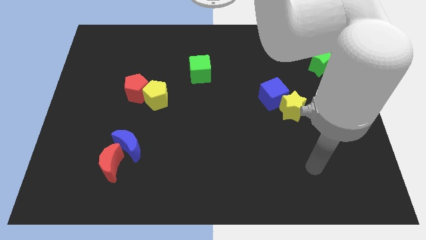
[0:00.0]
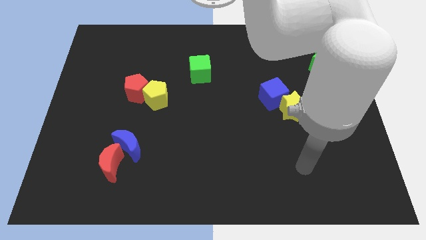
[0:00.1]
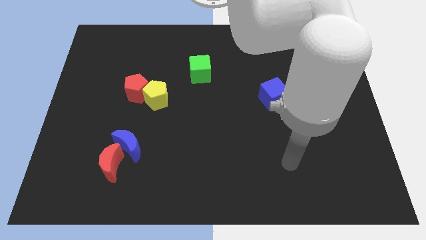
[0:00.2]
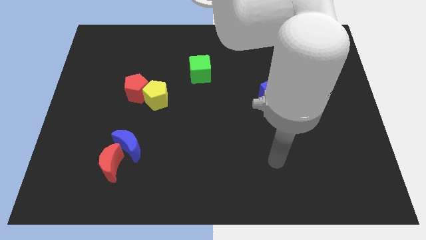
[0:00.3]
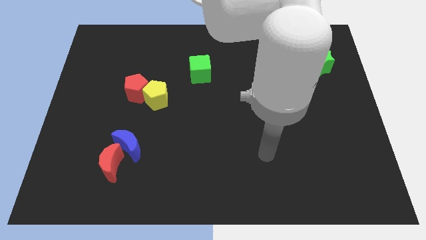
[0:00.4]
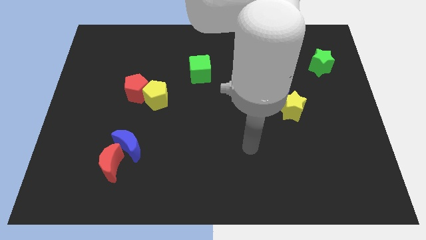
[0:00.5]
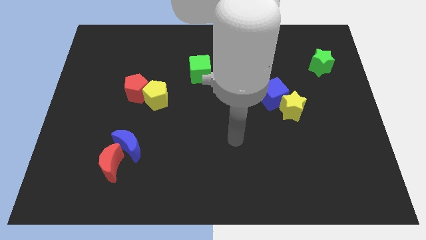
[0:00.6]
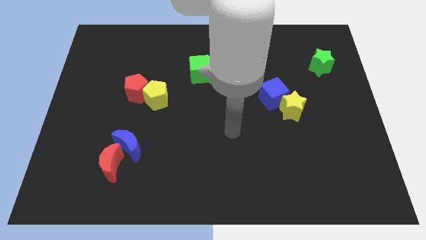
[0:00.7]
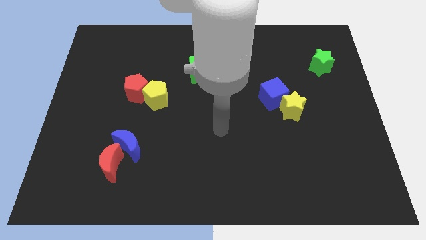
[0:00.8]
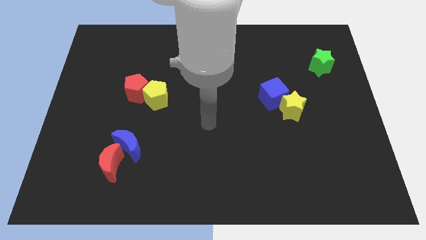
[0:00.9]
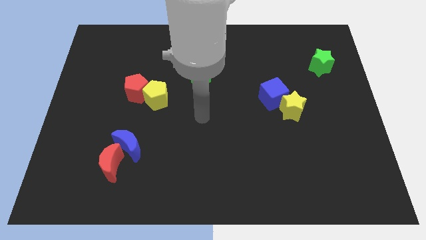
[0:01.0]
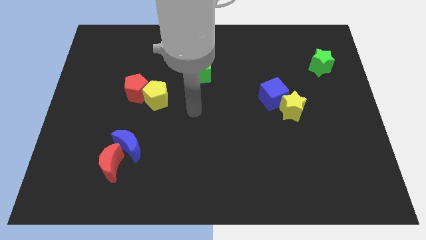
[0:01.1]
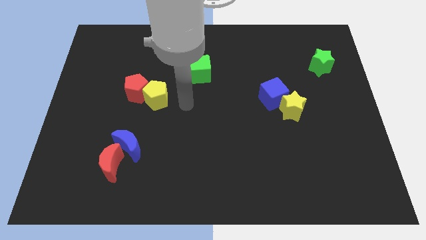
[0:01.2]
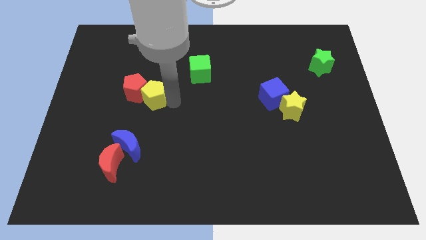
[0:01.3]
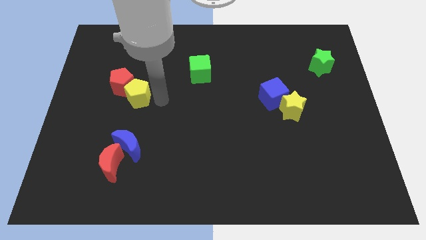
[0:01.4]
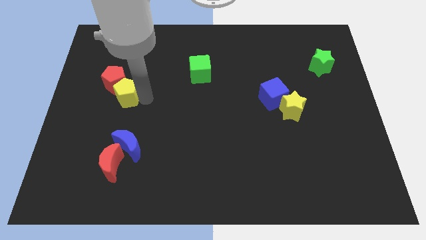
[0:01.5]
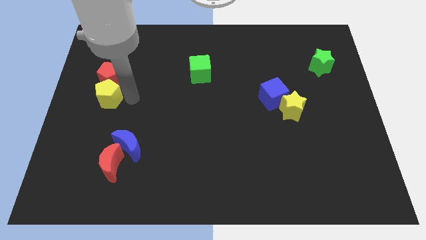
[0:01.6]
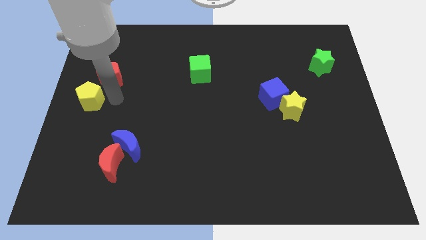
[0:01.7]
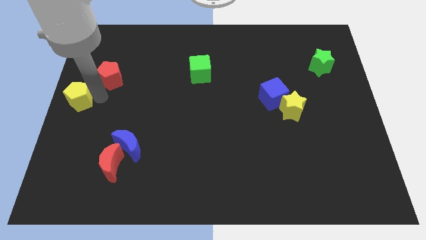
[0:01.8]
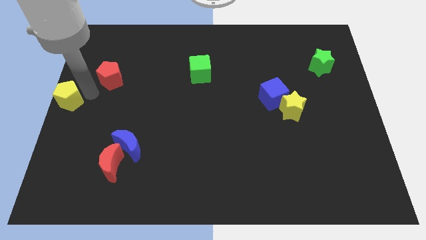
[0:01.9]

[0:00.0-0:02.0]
separate the red pentagon from the yellow pentagon

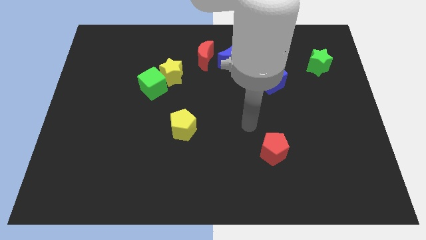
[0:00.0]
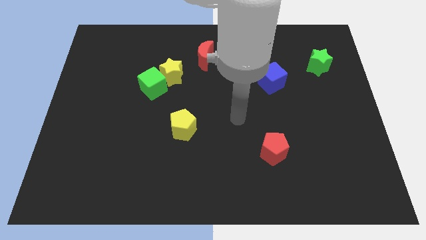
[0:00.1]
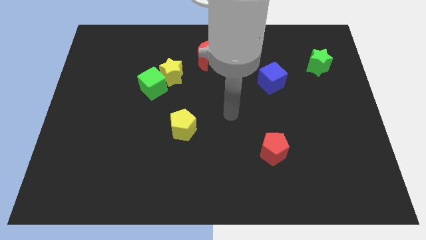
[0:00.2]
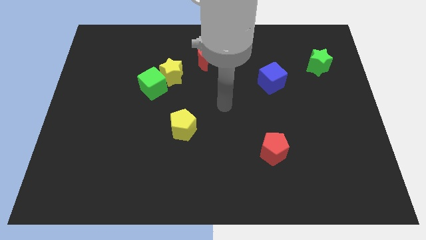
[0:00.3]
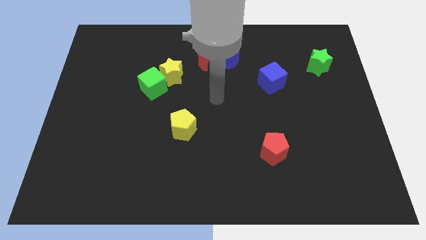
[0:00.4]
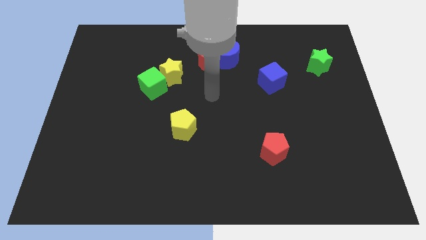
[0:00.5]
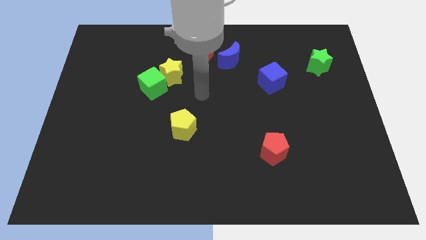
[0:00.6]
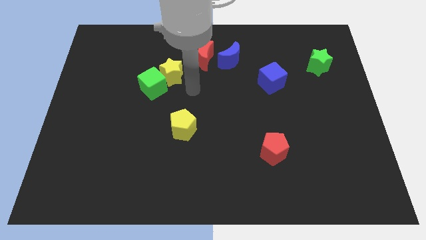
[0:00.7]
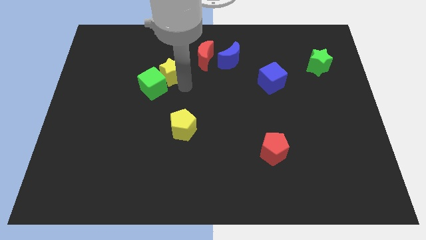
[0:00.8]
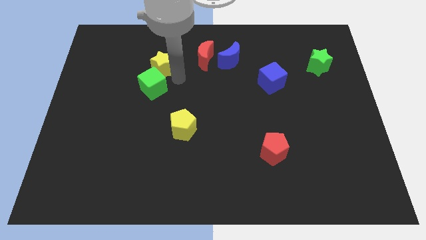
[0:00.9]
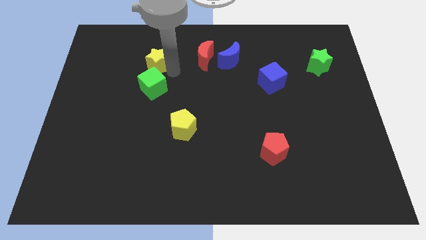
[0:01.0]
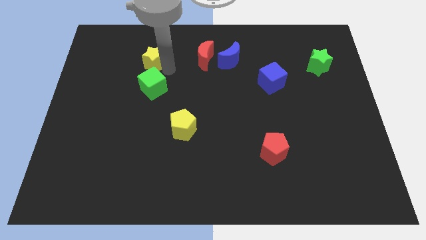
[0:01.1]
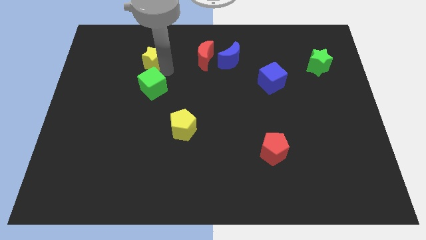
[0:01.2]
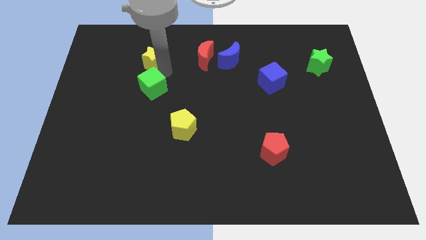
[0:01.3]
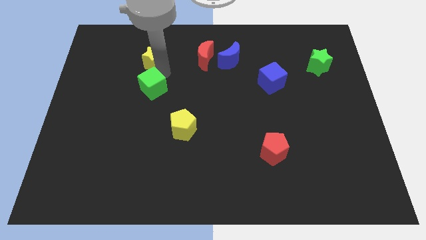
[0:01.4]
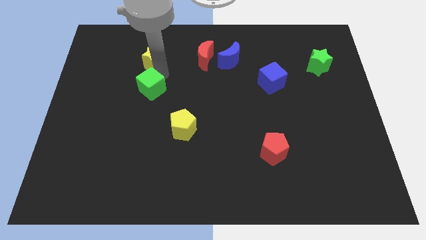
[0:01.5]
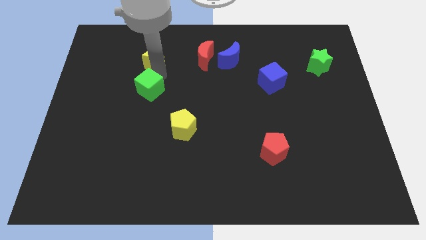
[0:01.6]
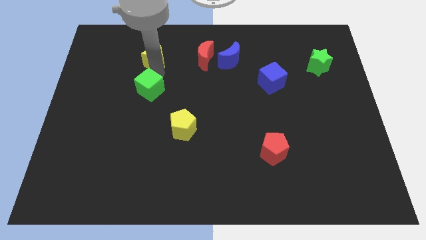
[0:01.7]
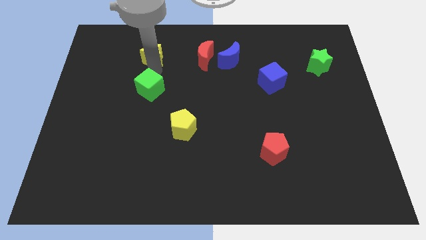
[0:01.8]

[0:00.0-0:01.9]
pull the green cube apart from the yellow star

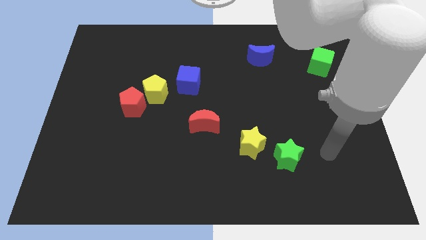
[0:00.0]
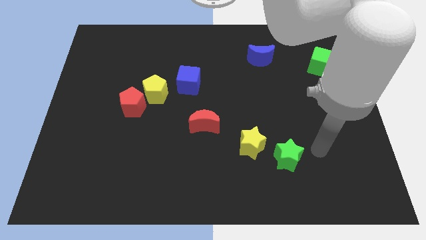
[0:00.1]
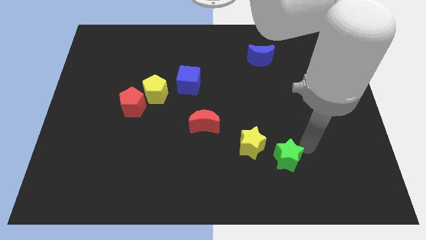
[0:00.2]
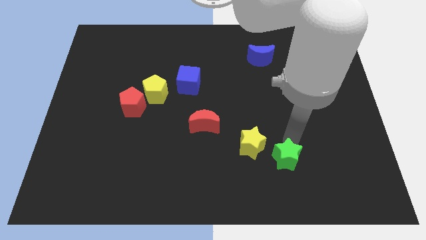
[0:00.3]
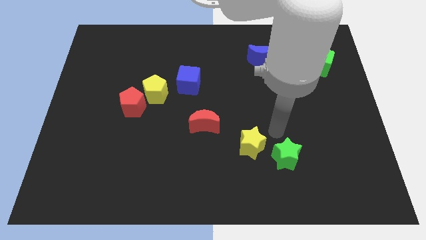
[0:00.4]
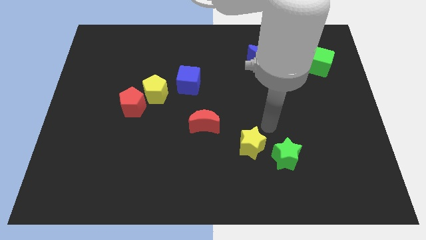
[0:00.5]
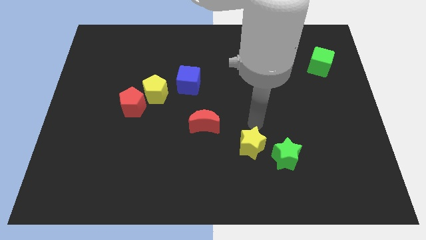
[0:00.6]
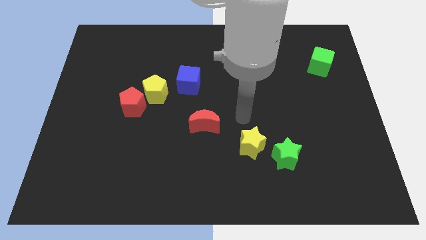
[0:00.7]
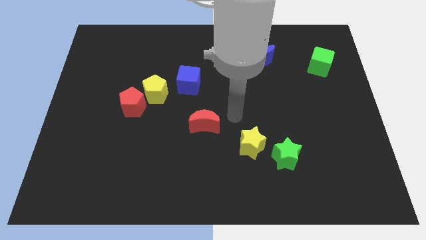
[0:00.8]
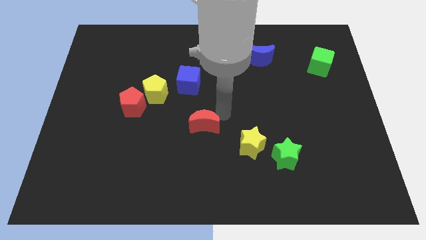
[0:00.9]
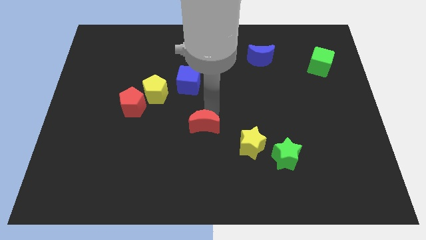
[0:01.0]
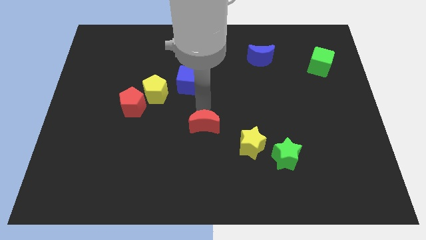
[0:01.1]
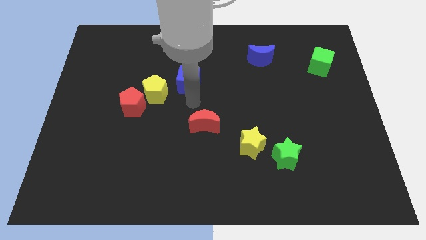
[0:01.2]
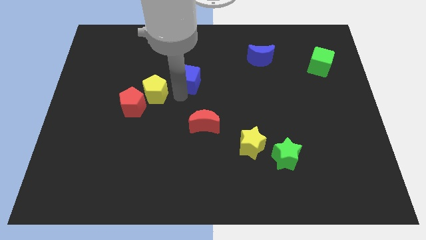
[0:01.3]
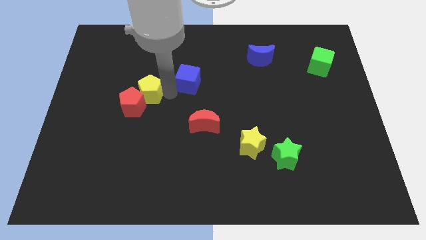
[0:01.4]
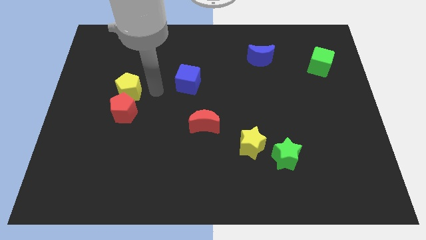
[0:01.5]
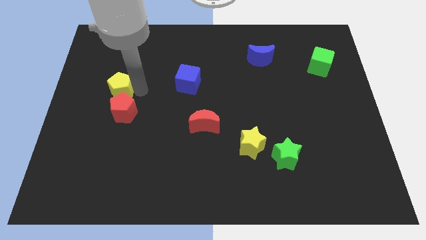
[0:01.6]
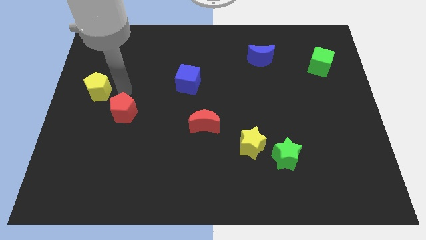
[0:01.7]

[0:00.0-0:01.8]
move the red pentagon away from the yellow pentagon

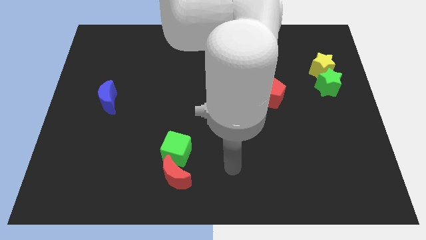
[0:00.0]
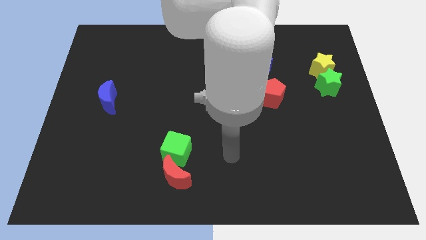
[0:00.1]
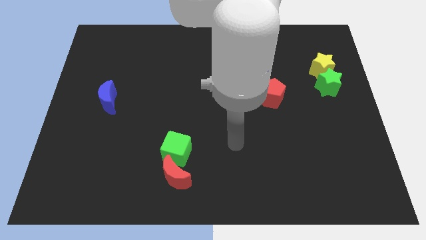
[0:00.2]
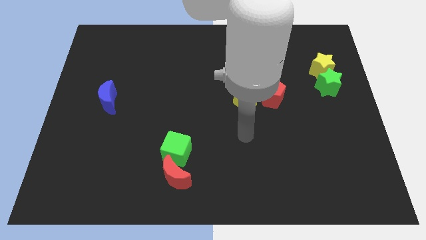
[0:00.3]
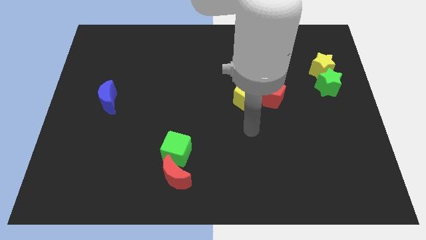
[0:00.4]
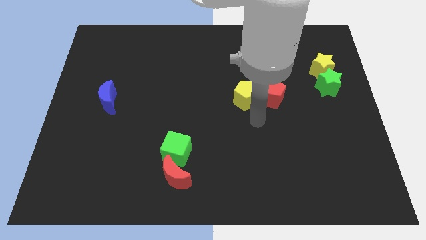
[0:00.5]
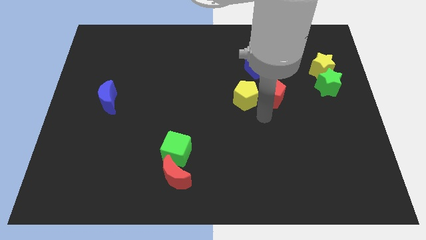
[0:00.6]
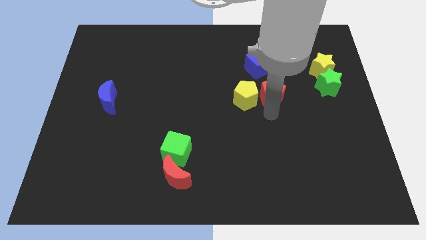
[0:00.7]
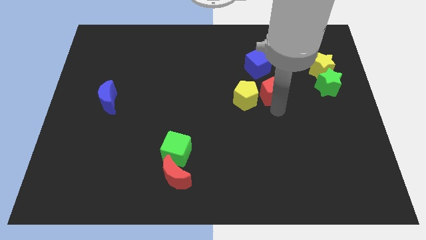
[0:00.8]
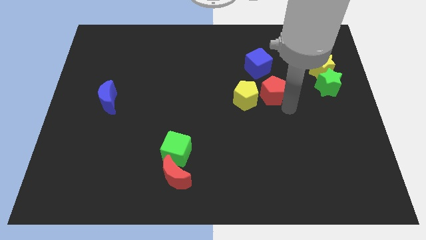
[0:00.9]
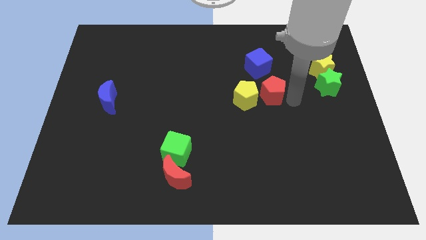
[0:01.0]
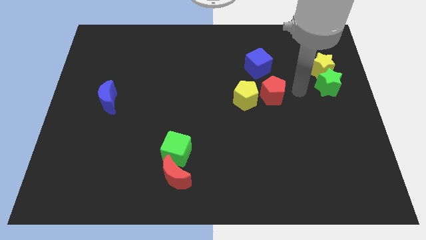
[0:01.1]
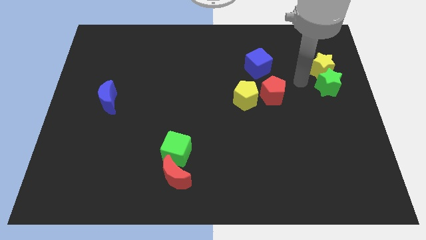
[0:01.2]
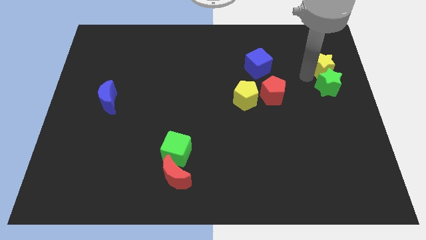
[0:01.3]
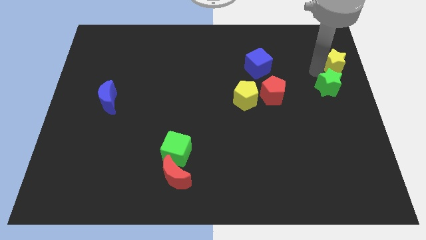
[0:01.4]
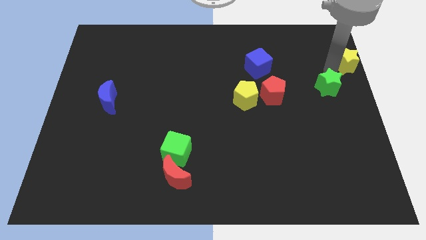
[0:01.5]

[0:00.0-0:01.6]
pull the green star apart from the yellow star

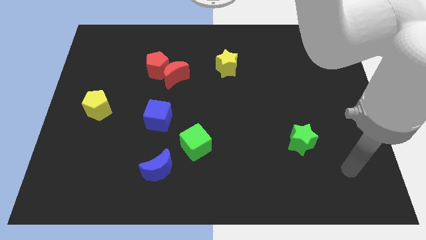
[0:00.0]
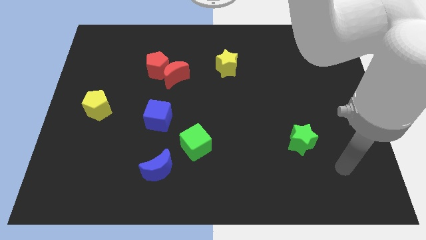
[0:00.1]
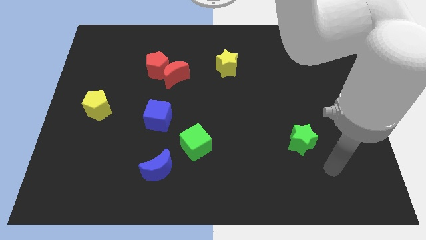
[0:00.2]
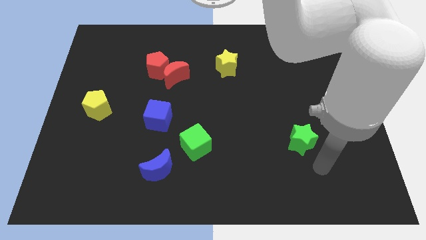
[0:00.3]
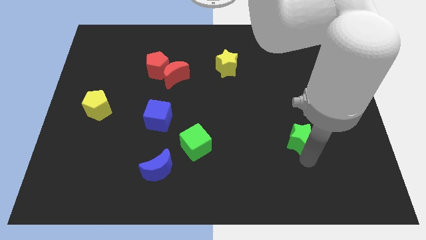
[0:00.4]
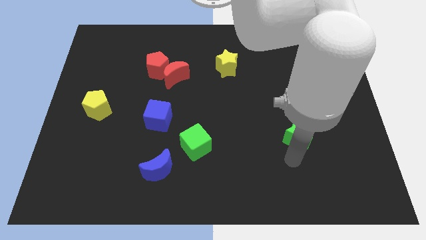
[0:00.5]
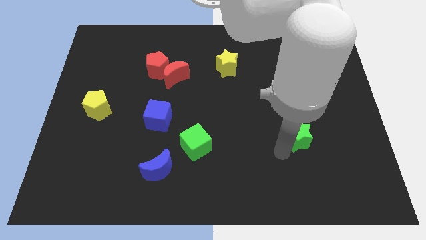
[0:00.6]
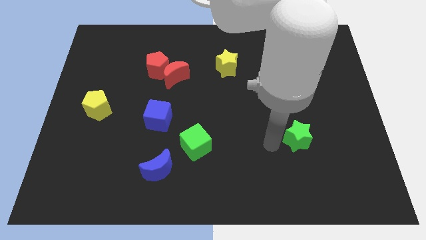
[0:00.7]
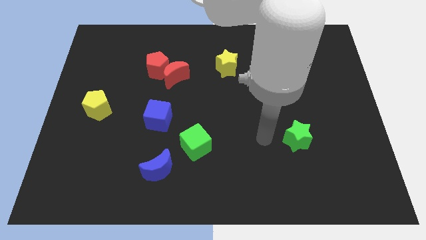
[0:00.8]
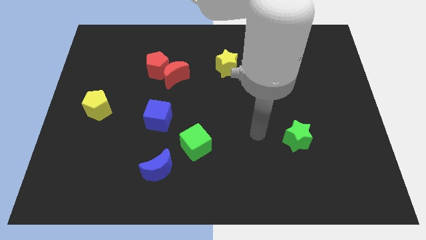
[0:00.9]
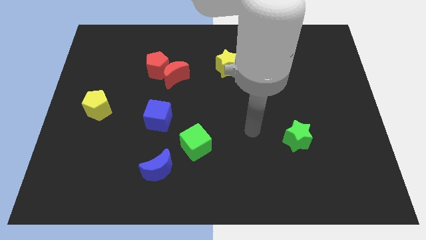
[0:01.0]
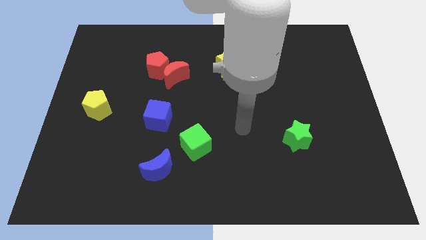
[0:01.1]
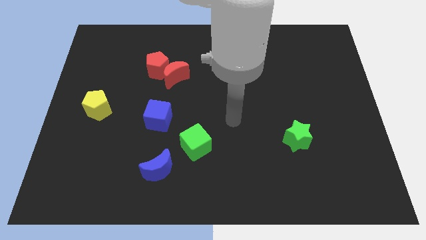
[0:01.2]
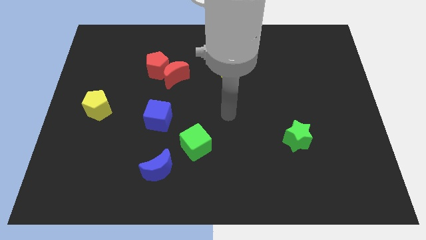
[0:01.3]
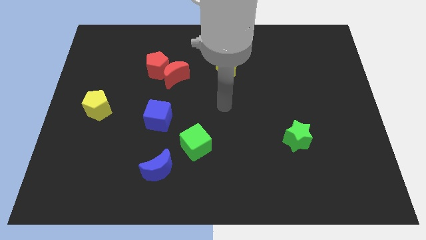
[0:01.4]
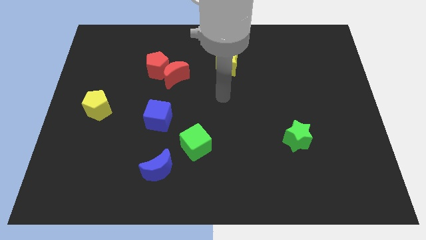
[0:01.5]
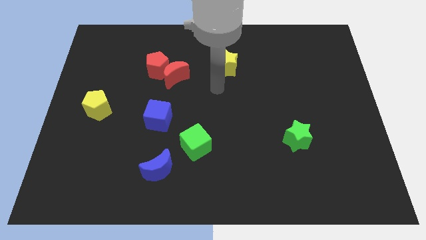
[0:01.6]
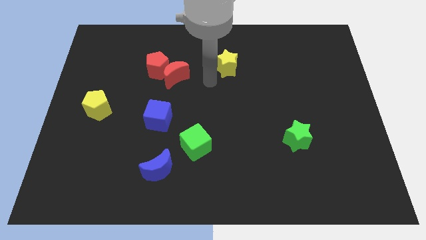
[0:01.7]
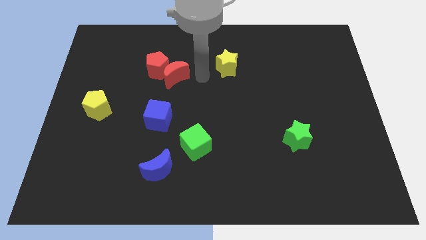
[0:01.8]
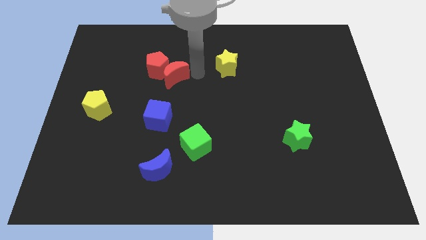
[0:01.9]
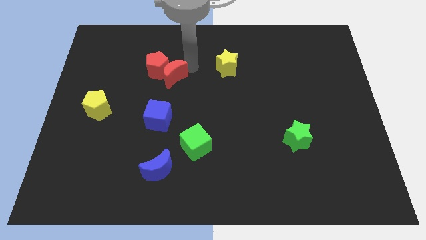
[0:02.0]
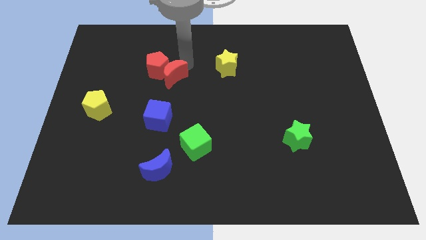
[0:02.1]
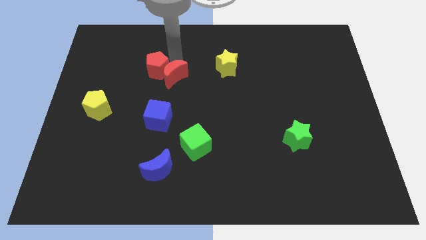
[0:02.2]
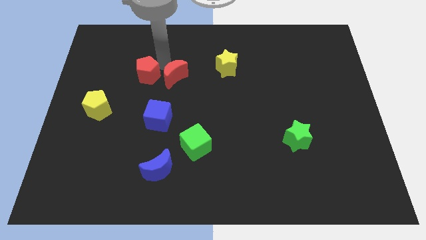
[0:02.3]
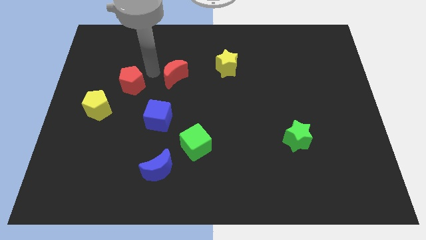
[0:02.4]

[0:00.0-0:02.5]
separate the red moon from the red pentagon
